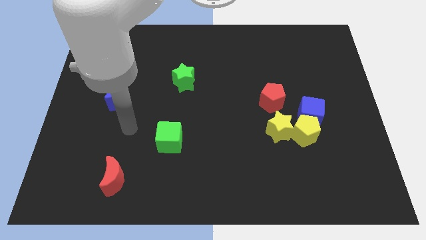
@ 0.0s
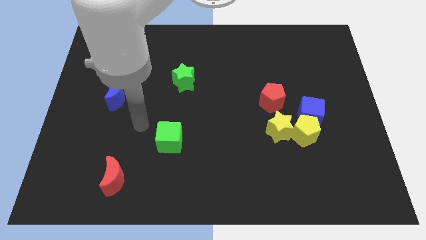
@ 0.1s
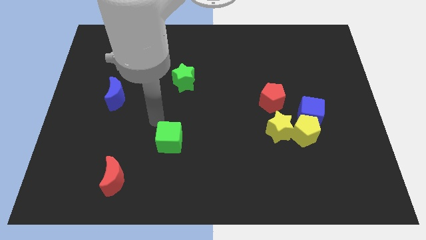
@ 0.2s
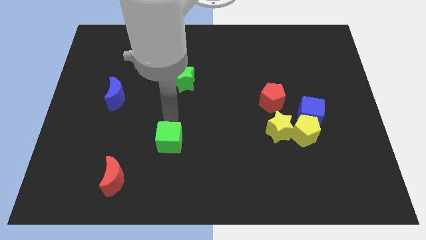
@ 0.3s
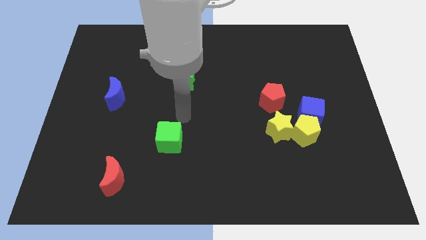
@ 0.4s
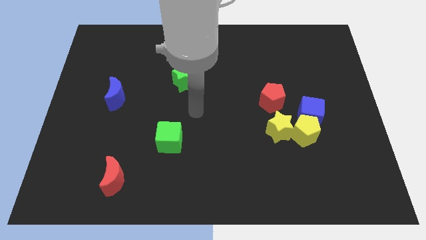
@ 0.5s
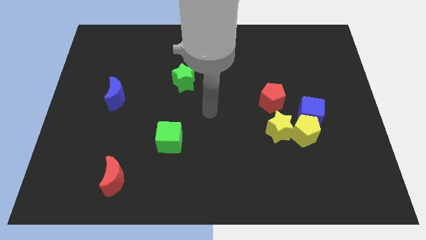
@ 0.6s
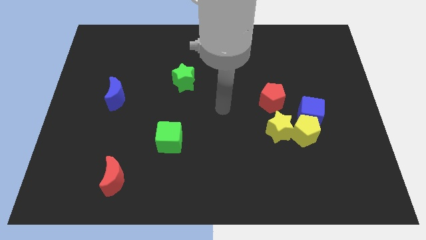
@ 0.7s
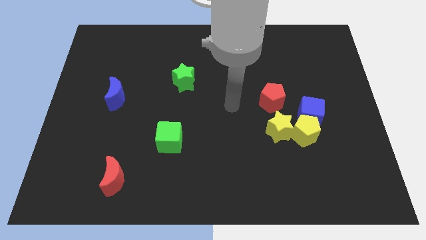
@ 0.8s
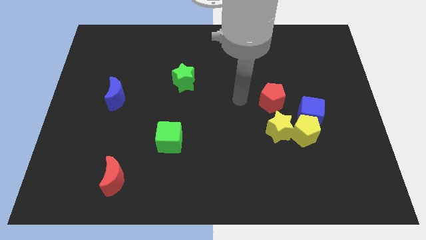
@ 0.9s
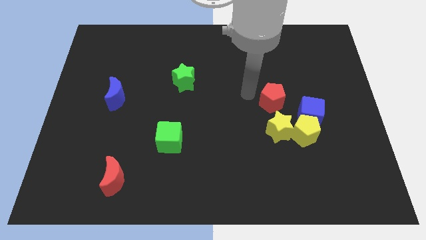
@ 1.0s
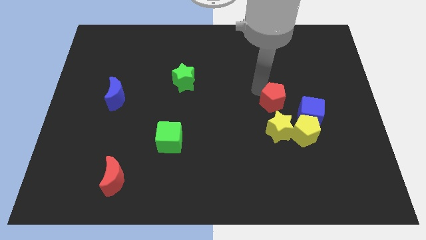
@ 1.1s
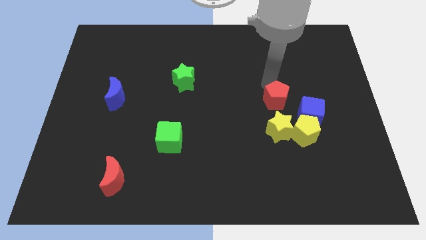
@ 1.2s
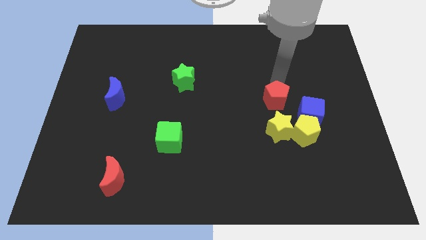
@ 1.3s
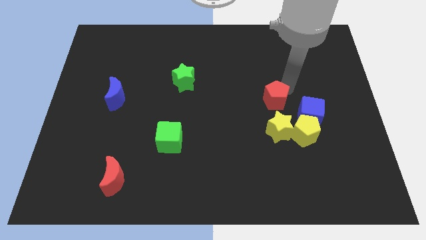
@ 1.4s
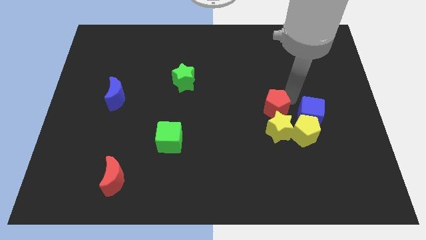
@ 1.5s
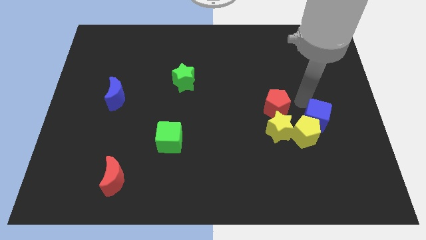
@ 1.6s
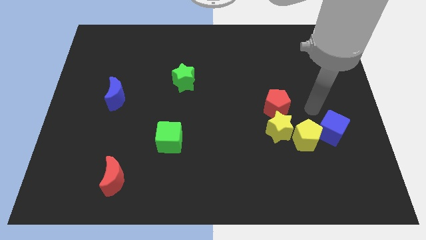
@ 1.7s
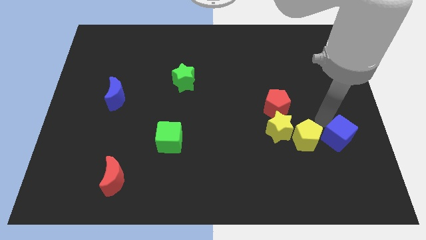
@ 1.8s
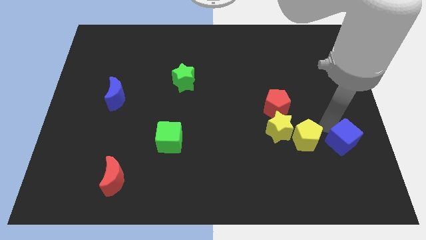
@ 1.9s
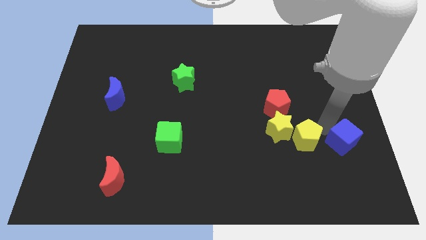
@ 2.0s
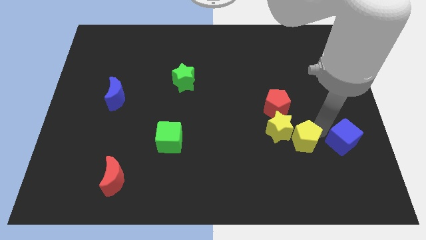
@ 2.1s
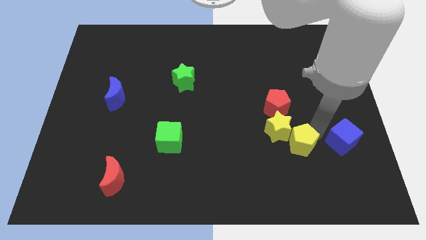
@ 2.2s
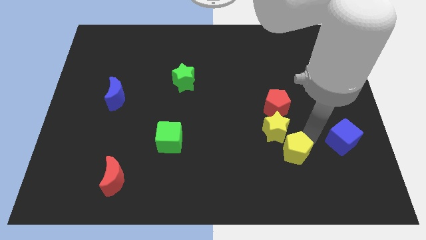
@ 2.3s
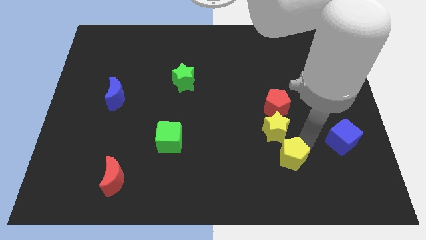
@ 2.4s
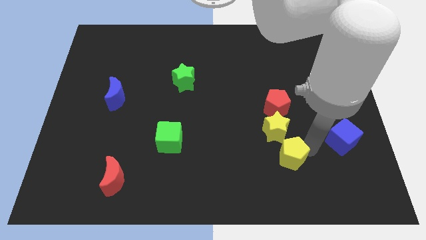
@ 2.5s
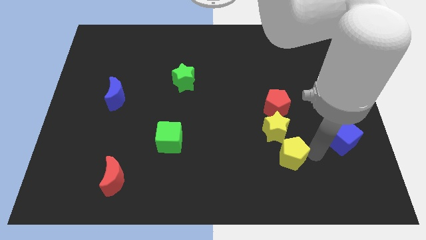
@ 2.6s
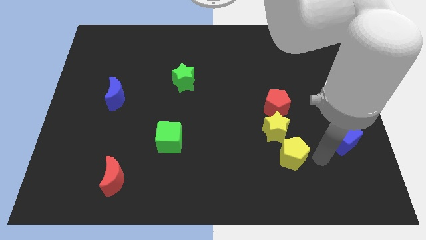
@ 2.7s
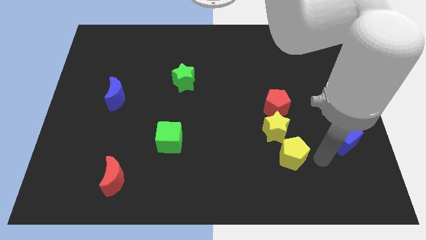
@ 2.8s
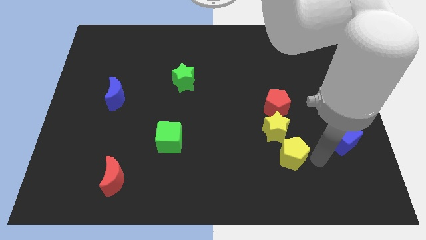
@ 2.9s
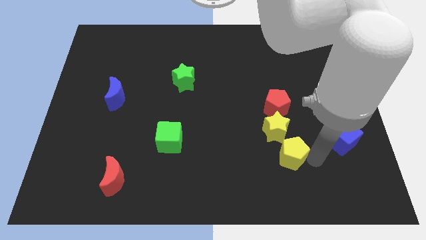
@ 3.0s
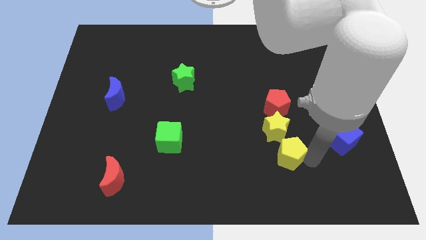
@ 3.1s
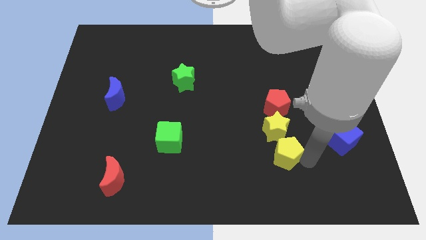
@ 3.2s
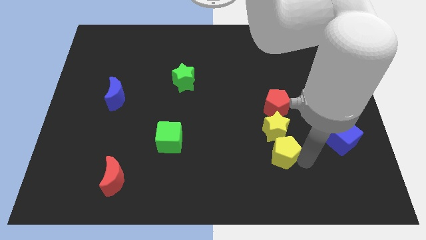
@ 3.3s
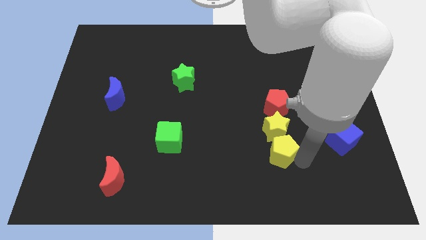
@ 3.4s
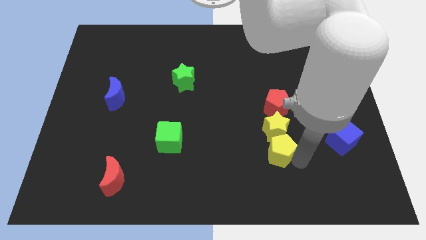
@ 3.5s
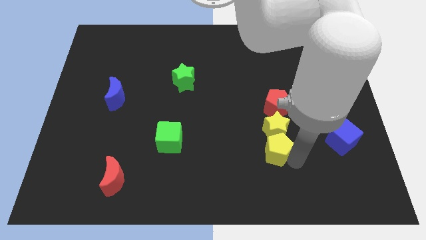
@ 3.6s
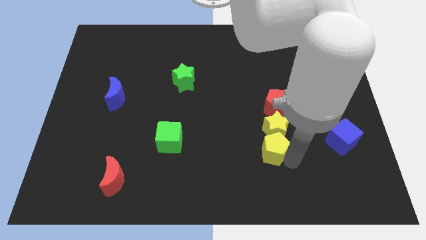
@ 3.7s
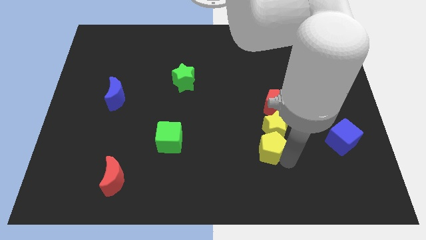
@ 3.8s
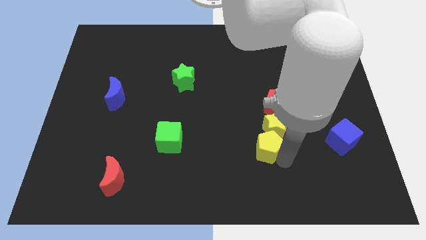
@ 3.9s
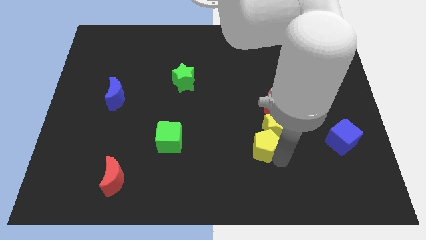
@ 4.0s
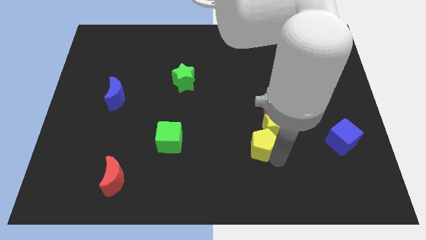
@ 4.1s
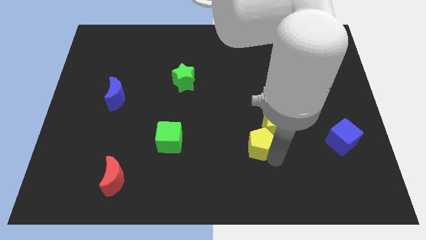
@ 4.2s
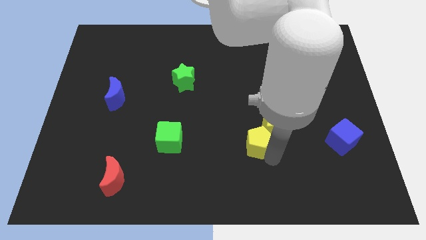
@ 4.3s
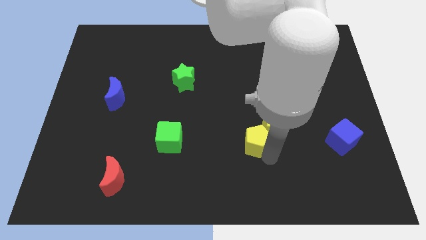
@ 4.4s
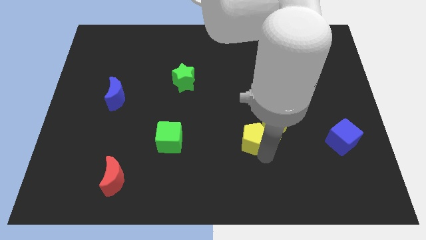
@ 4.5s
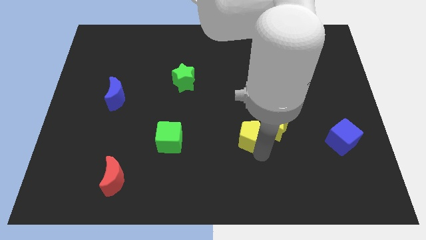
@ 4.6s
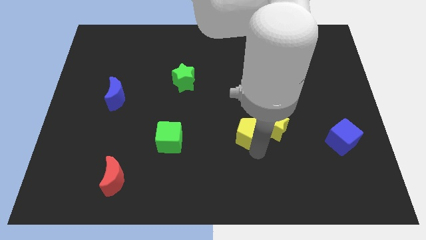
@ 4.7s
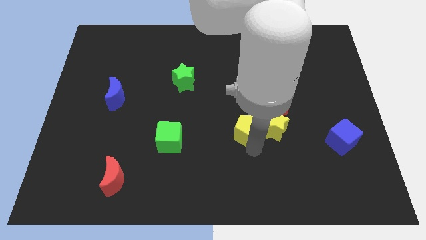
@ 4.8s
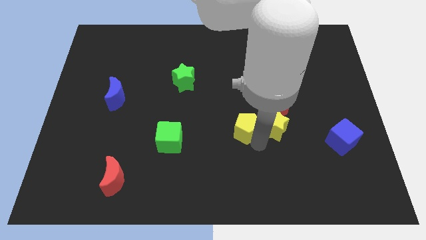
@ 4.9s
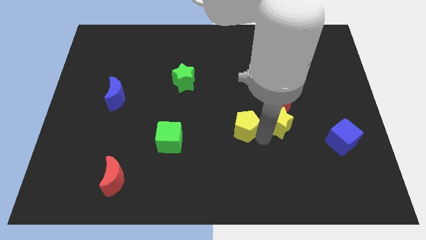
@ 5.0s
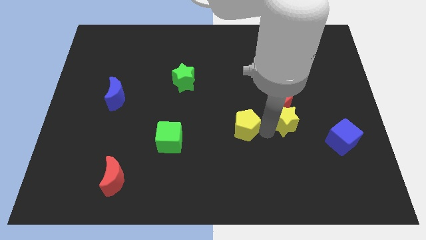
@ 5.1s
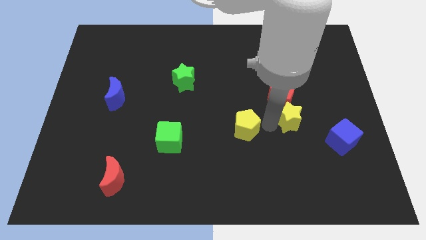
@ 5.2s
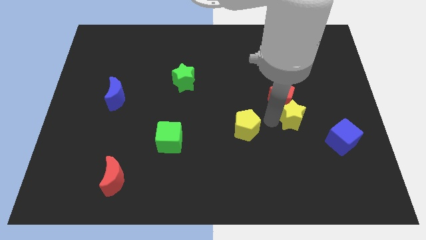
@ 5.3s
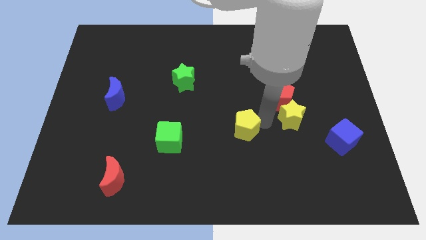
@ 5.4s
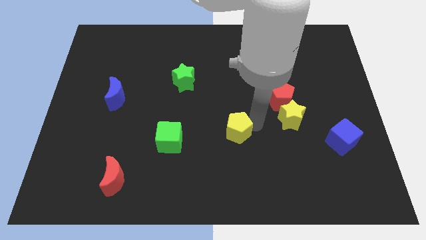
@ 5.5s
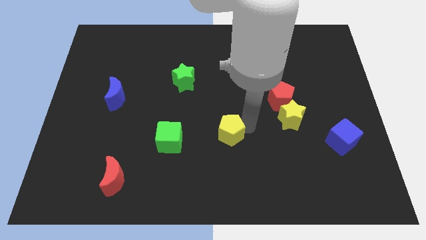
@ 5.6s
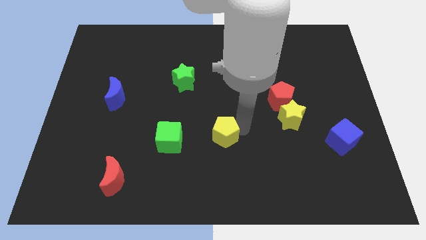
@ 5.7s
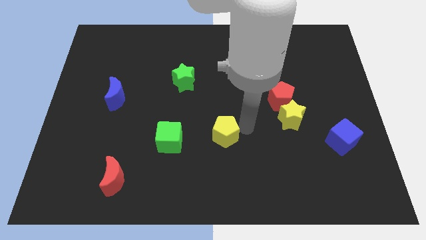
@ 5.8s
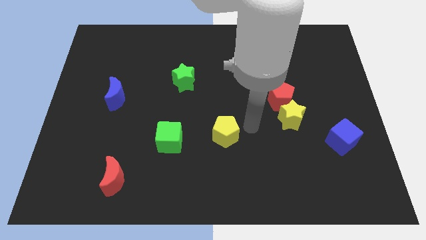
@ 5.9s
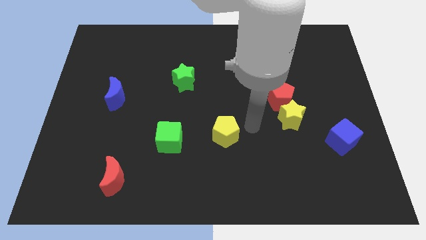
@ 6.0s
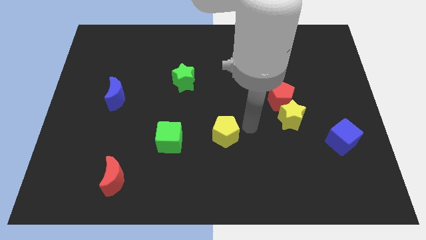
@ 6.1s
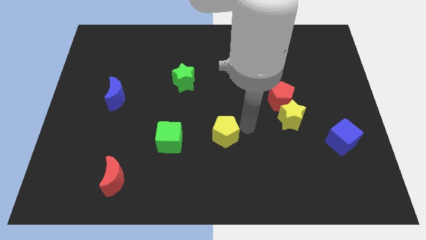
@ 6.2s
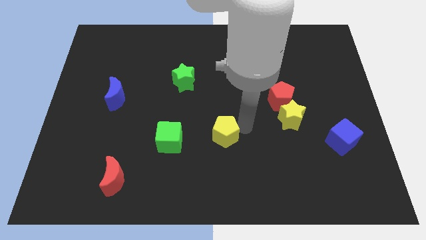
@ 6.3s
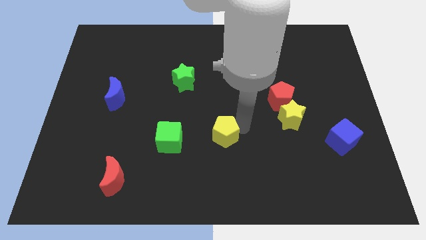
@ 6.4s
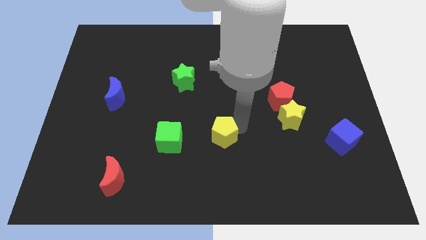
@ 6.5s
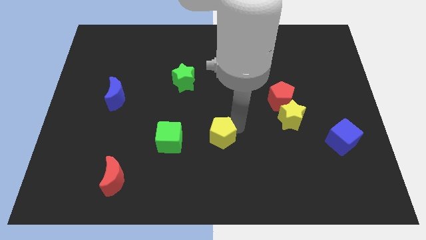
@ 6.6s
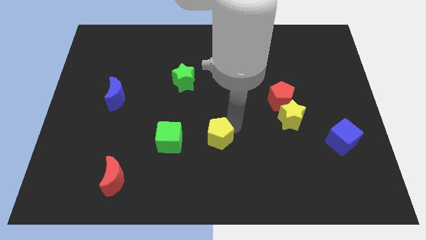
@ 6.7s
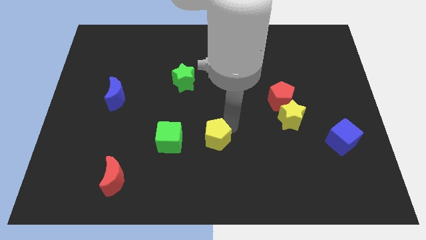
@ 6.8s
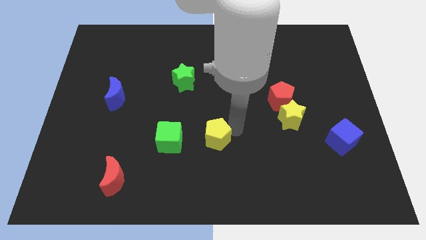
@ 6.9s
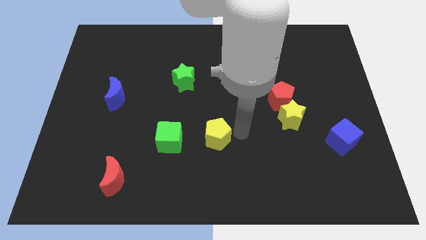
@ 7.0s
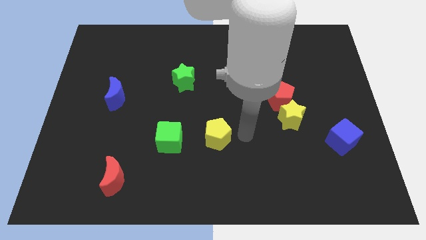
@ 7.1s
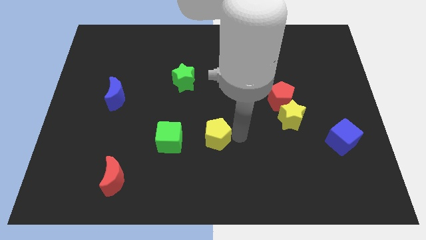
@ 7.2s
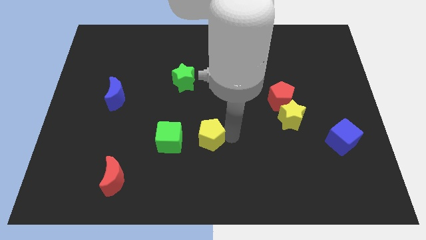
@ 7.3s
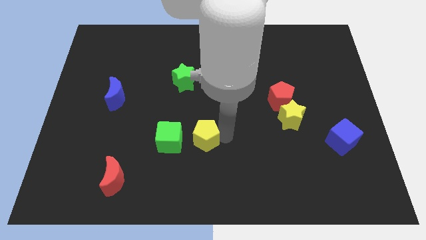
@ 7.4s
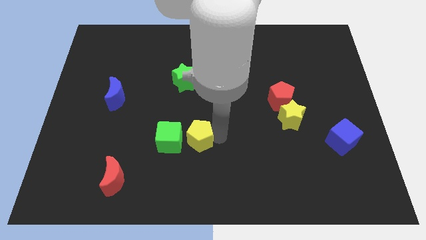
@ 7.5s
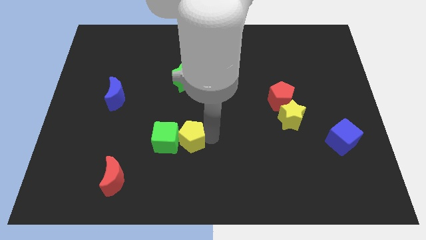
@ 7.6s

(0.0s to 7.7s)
slide the yellow pentagon to the green cube
